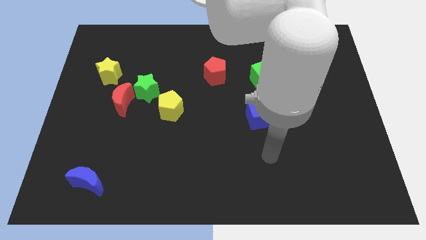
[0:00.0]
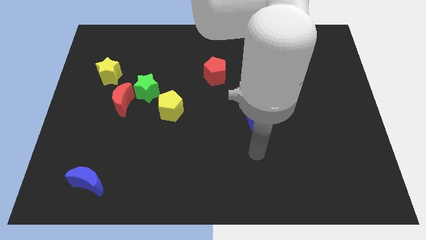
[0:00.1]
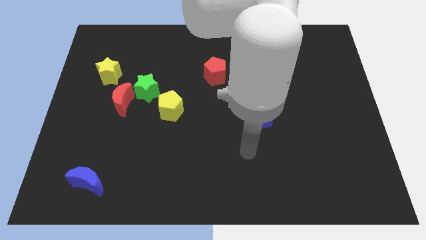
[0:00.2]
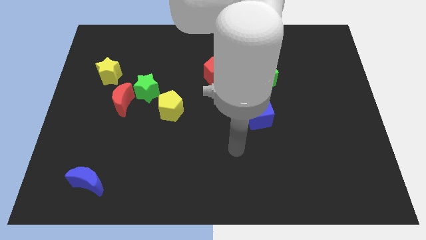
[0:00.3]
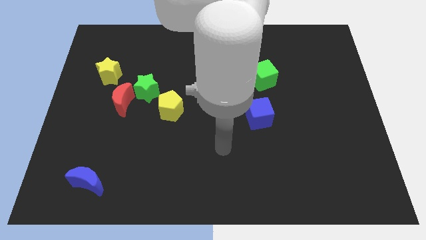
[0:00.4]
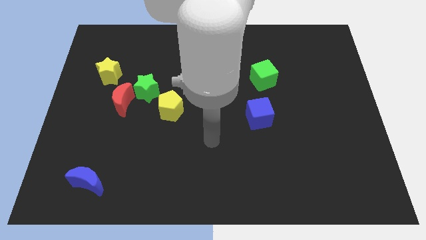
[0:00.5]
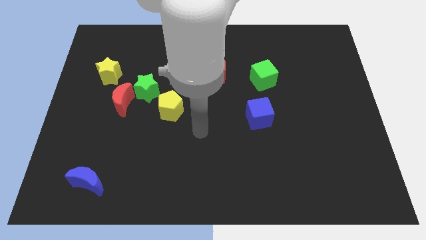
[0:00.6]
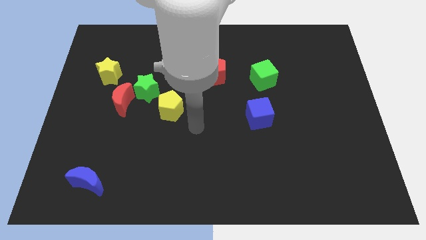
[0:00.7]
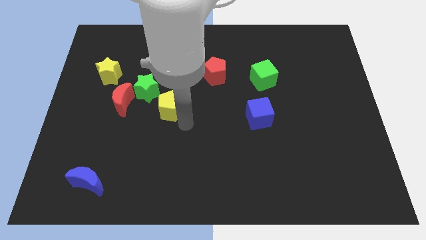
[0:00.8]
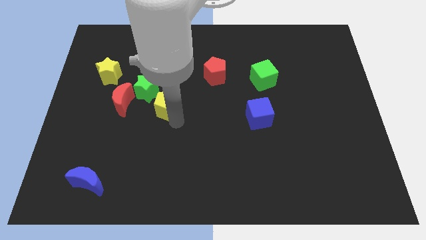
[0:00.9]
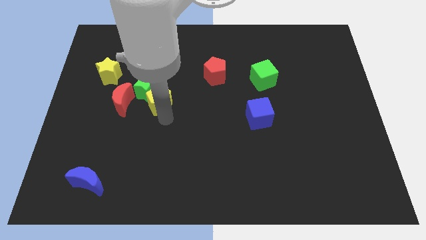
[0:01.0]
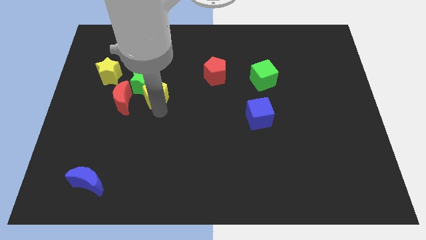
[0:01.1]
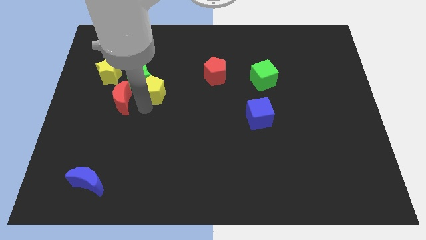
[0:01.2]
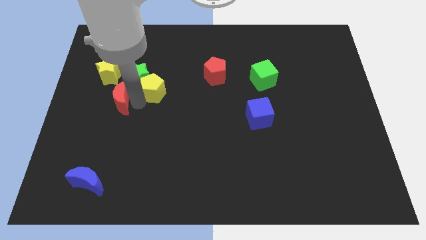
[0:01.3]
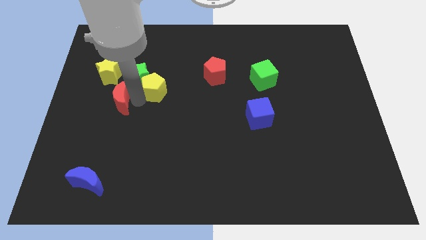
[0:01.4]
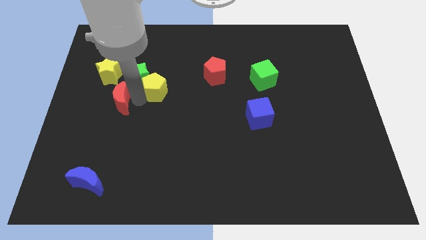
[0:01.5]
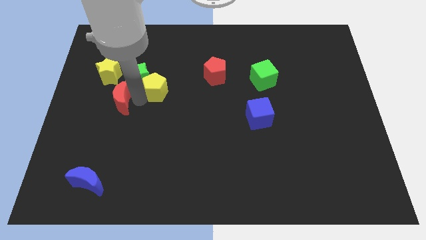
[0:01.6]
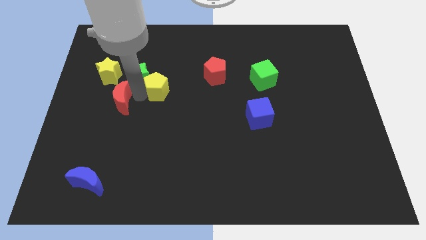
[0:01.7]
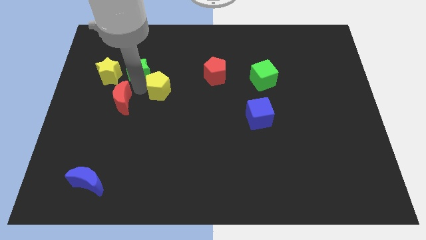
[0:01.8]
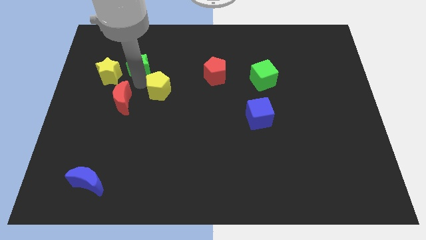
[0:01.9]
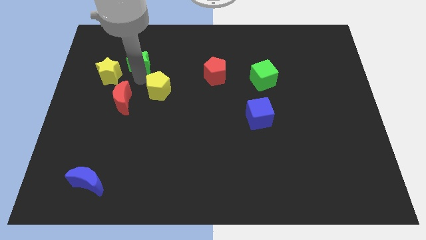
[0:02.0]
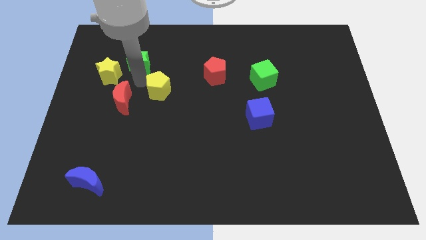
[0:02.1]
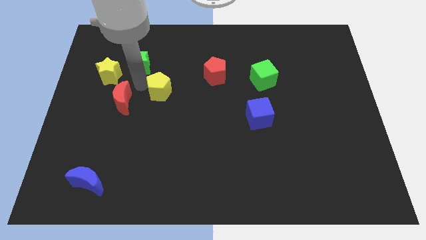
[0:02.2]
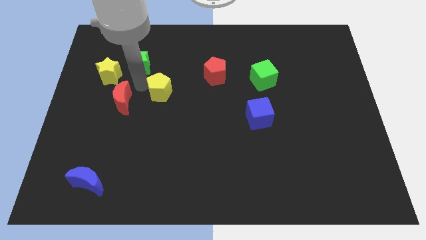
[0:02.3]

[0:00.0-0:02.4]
pull the green star apart from the red moon and yellow pentagon

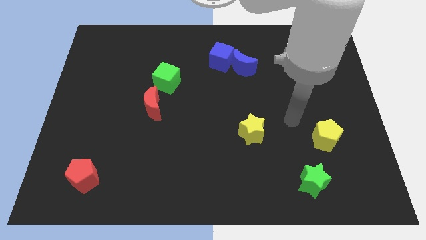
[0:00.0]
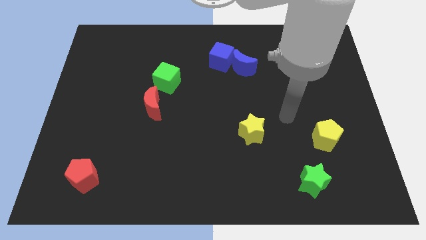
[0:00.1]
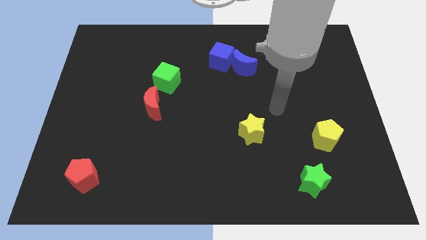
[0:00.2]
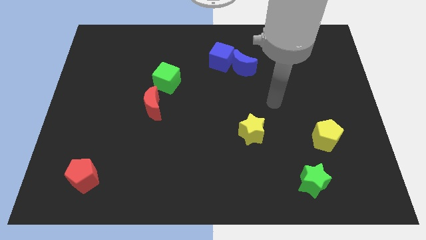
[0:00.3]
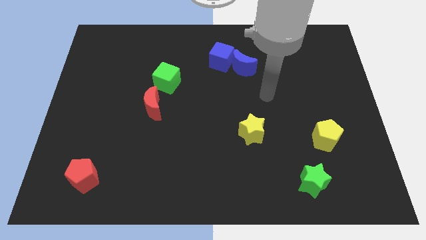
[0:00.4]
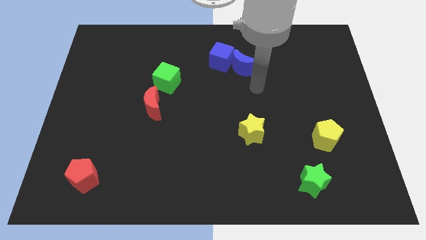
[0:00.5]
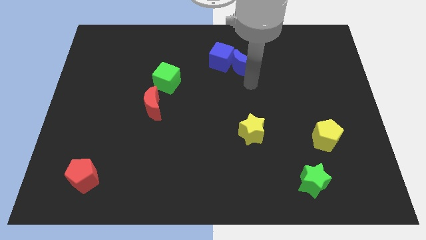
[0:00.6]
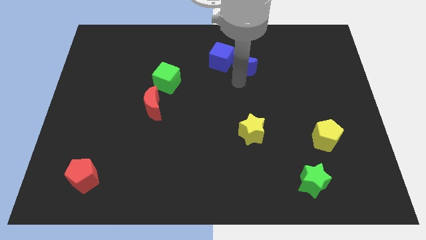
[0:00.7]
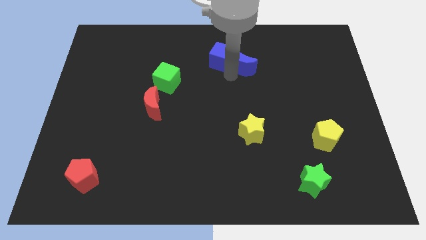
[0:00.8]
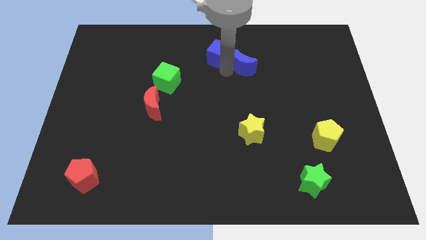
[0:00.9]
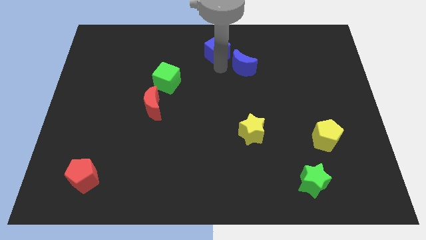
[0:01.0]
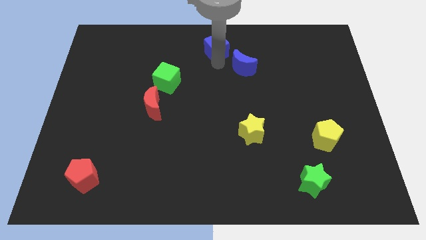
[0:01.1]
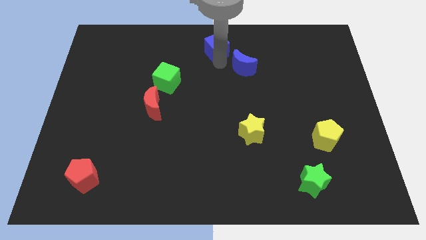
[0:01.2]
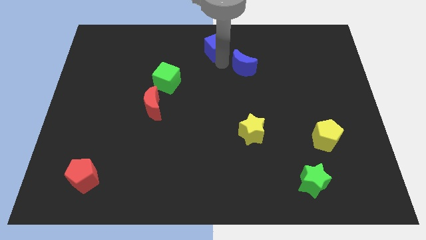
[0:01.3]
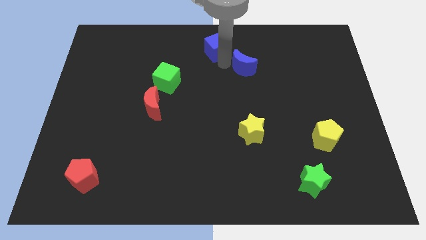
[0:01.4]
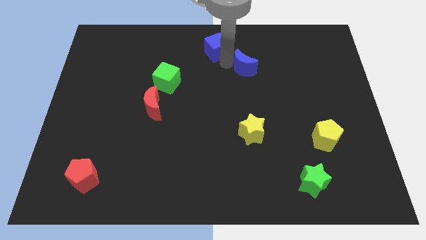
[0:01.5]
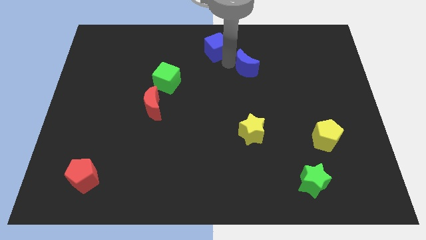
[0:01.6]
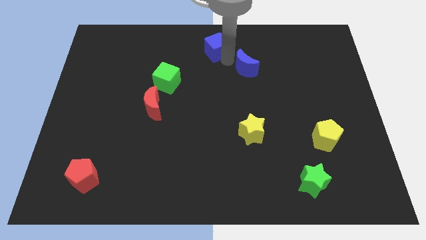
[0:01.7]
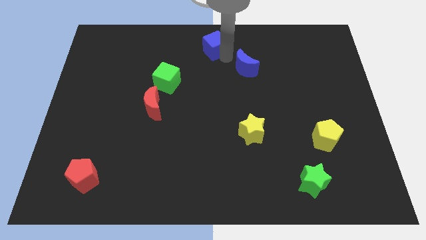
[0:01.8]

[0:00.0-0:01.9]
move the blue moon away from the blue cube

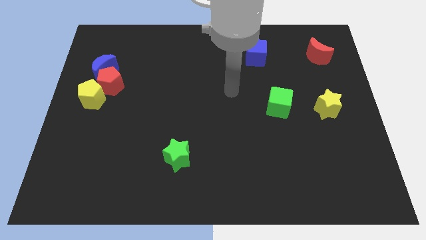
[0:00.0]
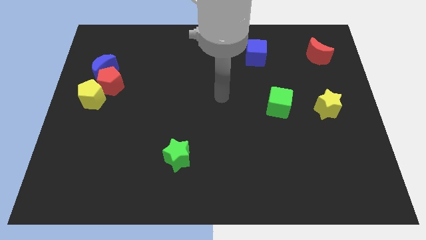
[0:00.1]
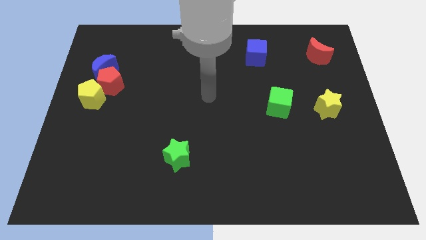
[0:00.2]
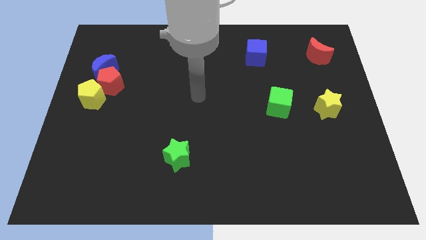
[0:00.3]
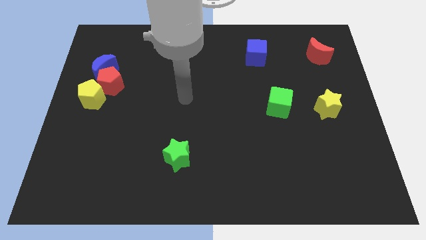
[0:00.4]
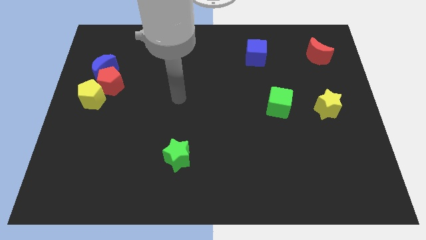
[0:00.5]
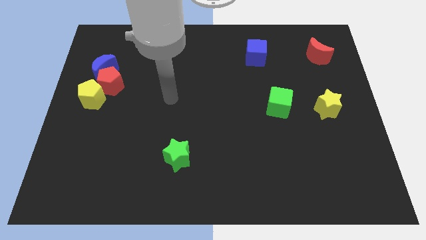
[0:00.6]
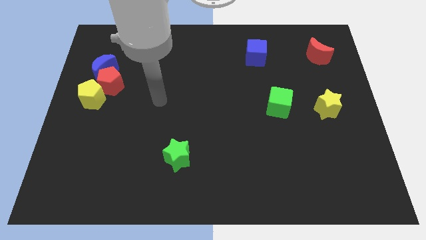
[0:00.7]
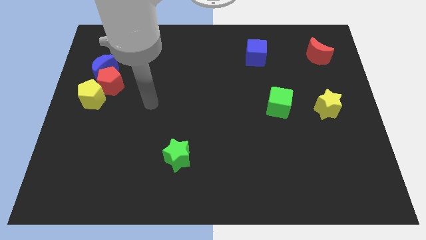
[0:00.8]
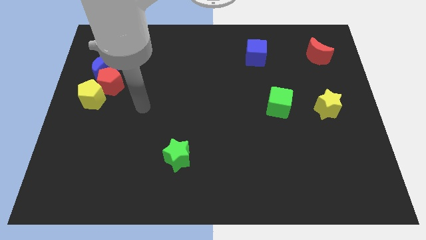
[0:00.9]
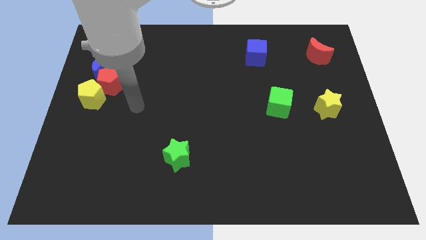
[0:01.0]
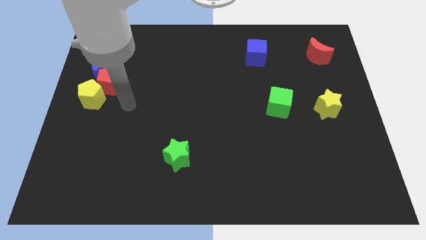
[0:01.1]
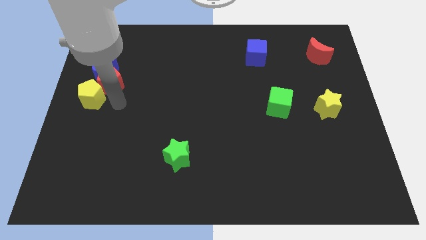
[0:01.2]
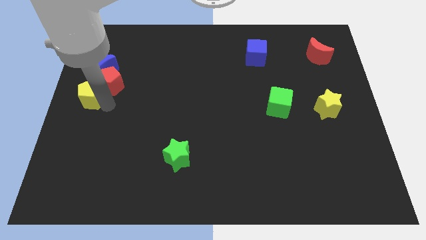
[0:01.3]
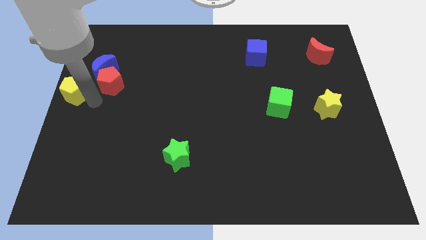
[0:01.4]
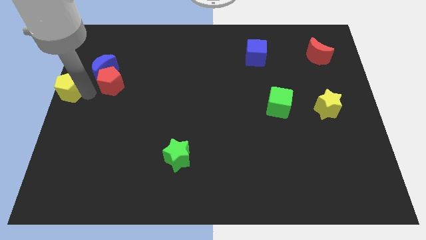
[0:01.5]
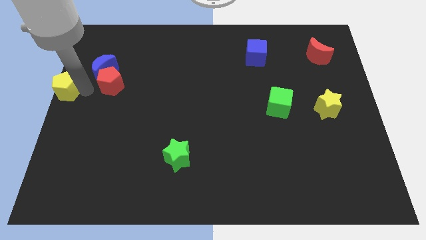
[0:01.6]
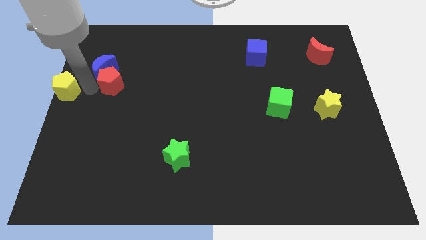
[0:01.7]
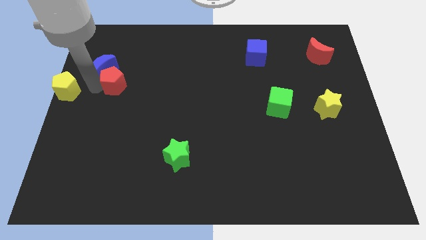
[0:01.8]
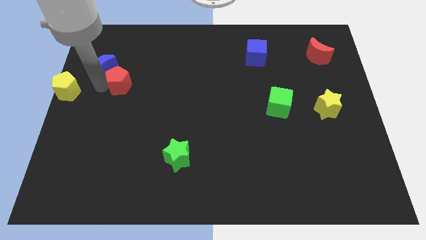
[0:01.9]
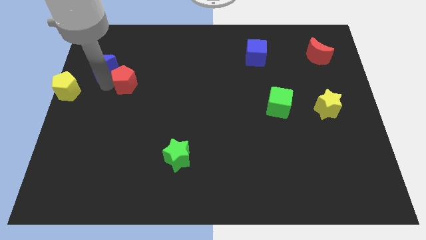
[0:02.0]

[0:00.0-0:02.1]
separate the red pentagon from the blue moon and yellow pentagon

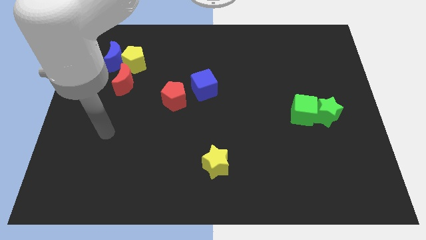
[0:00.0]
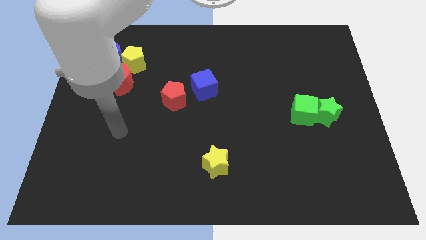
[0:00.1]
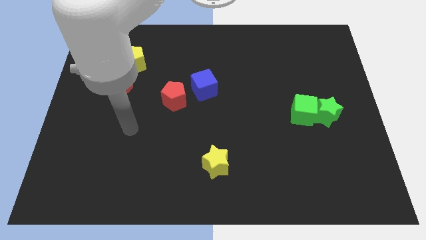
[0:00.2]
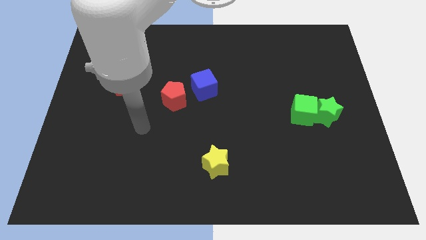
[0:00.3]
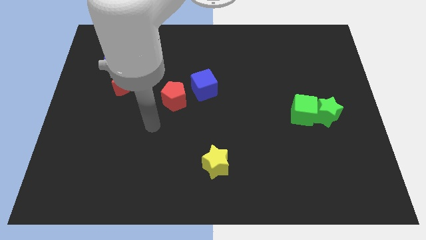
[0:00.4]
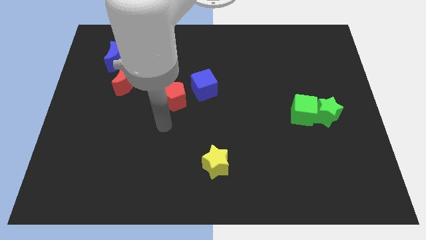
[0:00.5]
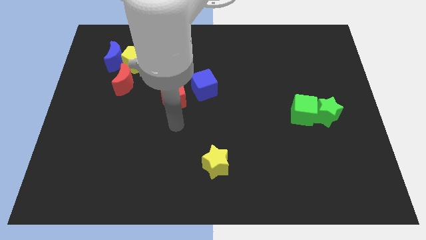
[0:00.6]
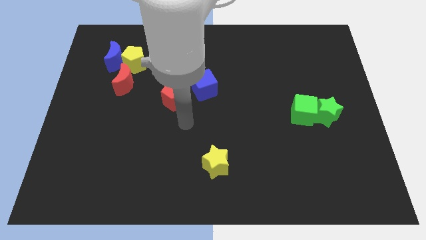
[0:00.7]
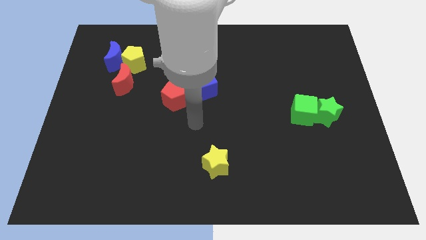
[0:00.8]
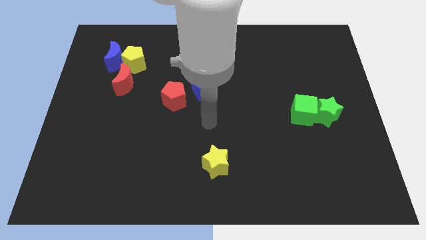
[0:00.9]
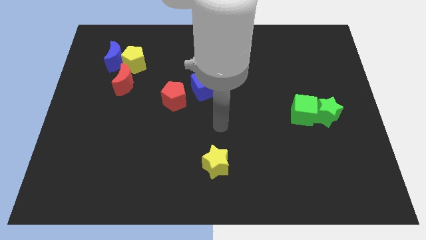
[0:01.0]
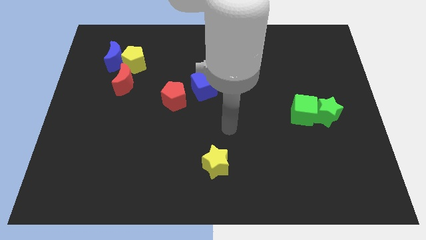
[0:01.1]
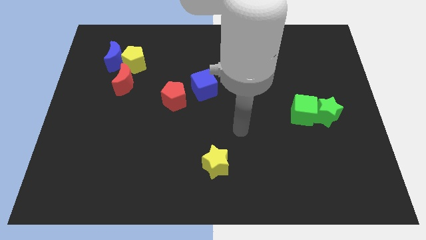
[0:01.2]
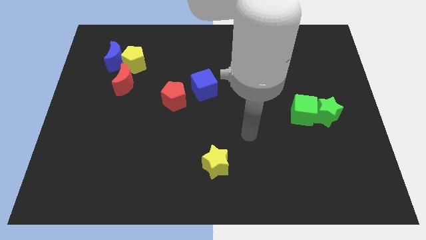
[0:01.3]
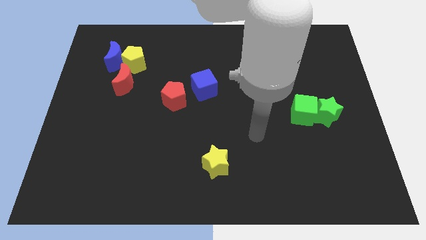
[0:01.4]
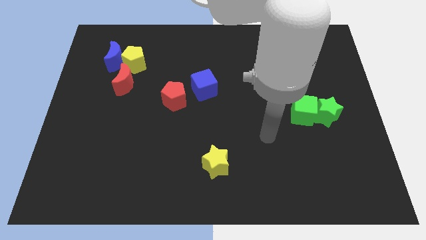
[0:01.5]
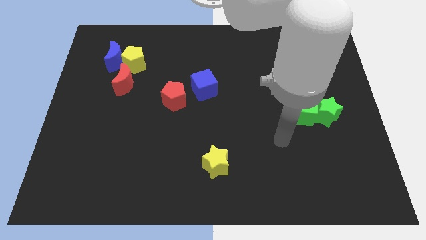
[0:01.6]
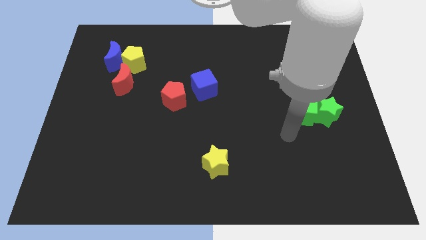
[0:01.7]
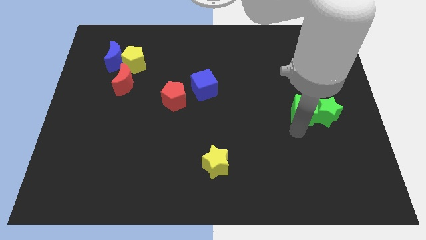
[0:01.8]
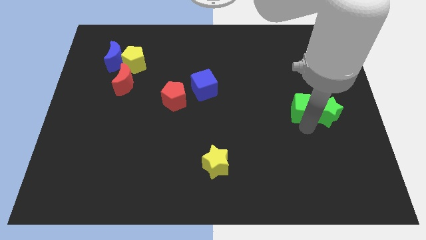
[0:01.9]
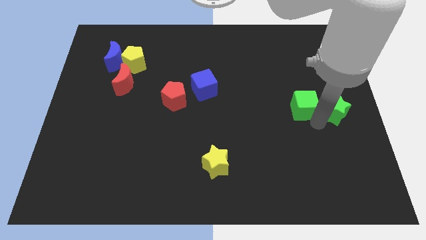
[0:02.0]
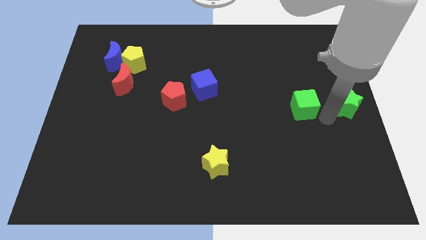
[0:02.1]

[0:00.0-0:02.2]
separate the green cube from the green star

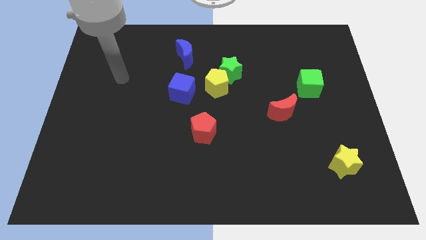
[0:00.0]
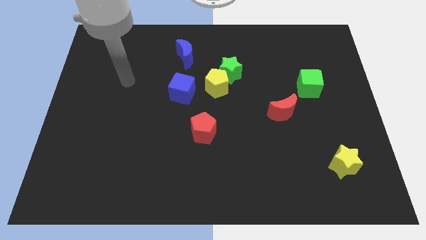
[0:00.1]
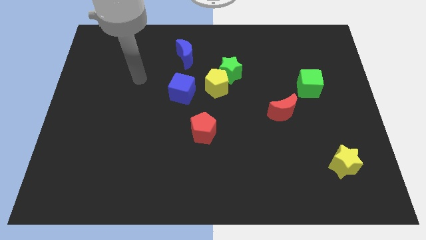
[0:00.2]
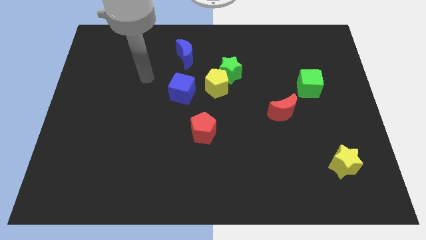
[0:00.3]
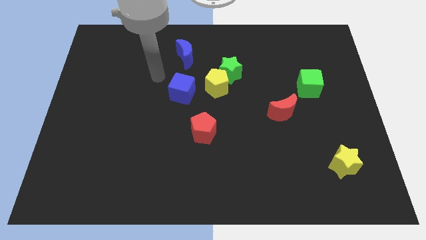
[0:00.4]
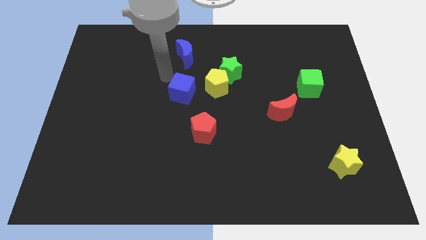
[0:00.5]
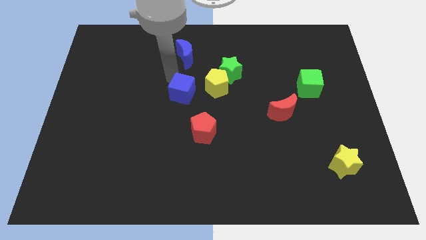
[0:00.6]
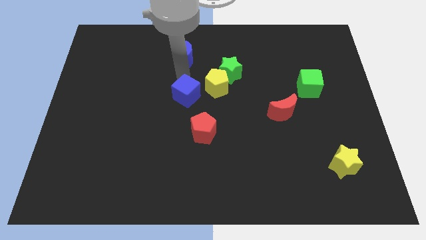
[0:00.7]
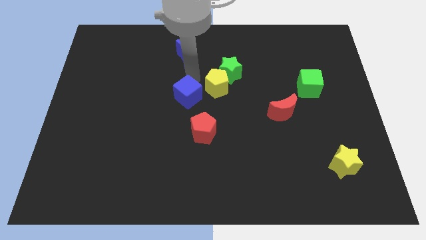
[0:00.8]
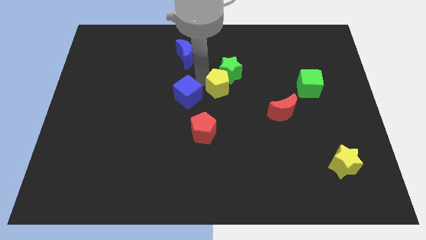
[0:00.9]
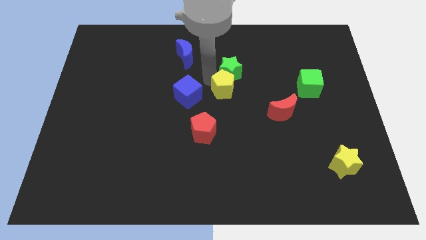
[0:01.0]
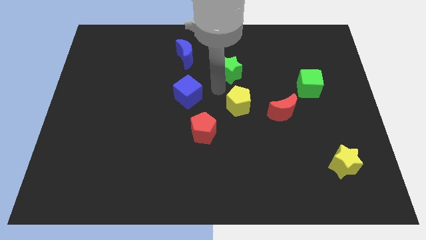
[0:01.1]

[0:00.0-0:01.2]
move the green star away from the yellow pentagon
